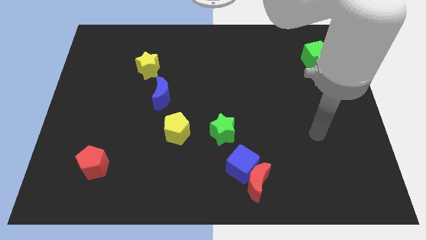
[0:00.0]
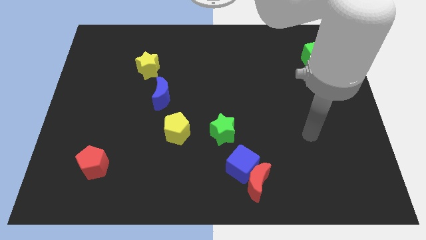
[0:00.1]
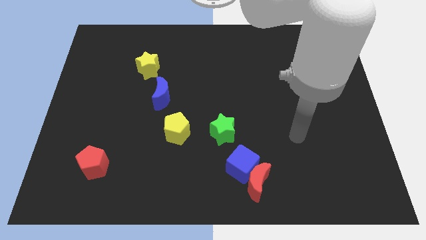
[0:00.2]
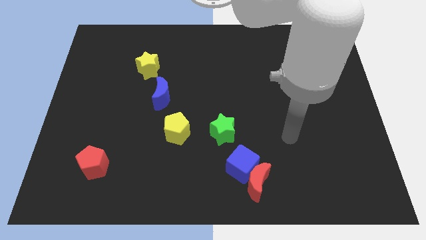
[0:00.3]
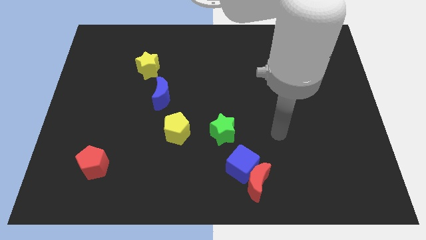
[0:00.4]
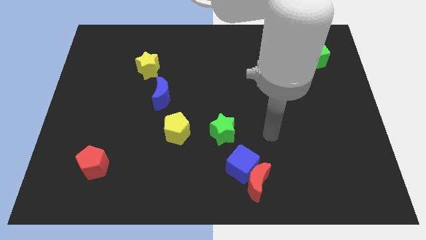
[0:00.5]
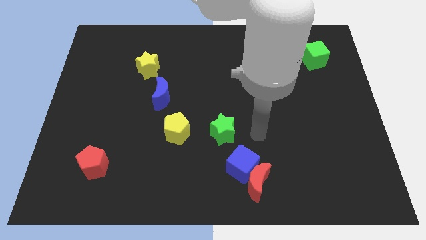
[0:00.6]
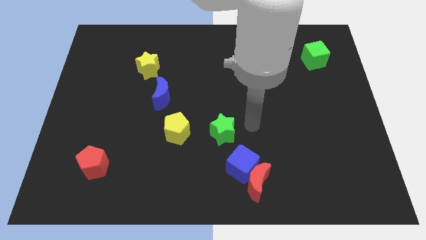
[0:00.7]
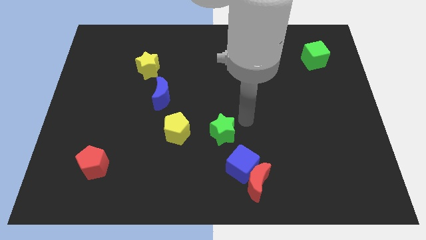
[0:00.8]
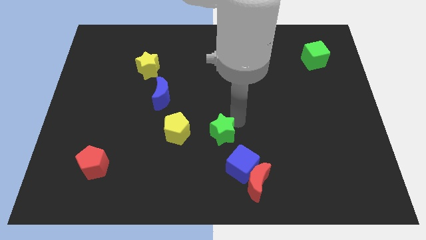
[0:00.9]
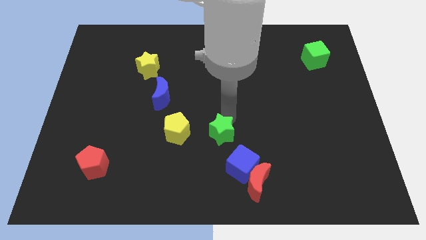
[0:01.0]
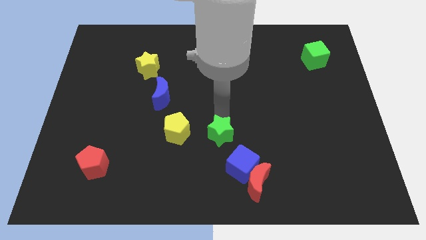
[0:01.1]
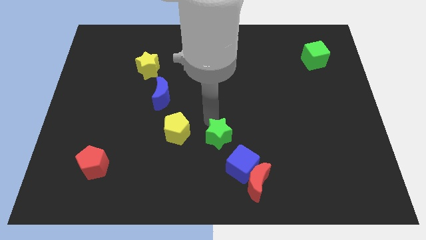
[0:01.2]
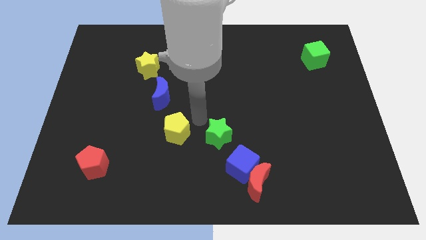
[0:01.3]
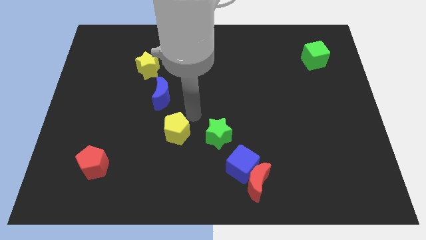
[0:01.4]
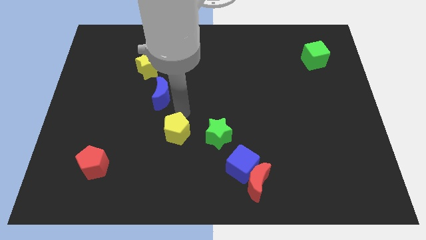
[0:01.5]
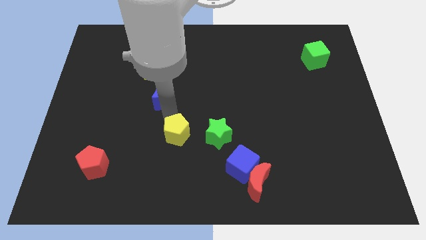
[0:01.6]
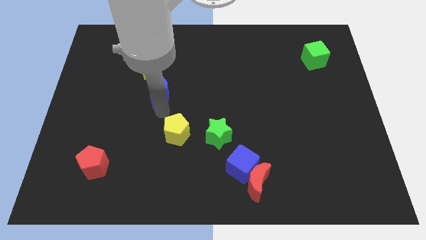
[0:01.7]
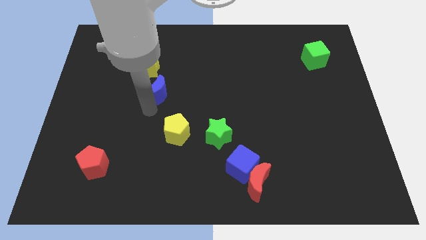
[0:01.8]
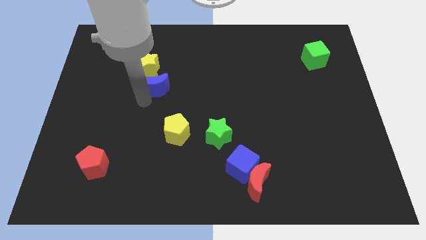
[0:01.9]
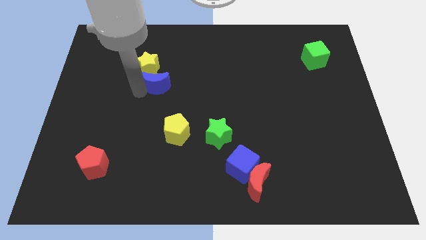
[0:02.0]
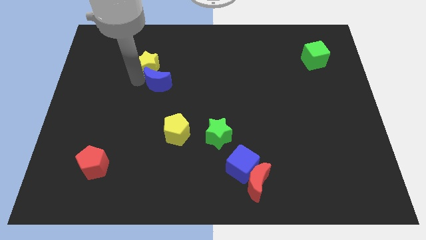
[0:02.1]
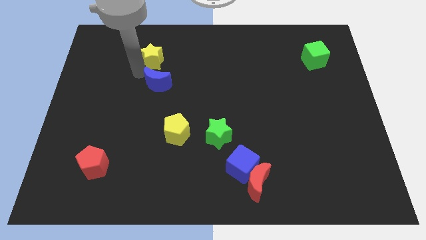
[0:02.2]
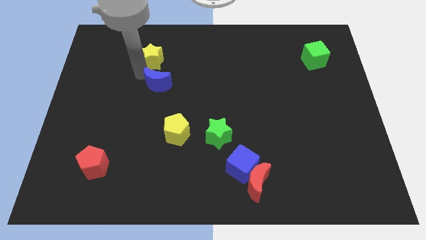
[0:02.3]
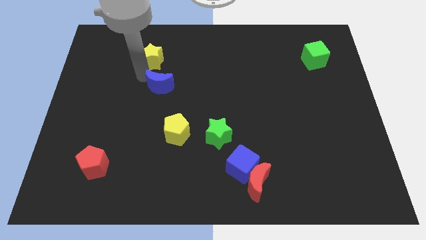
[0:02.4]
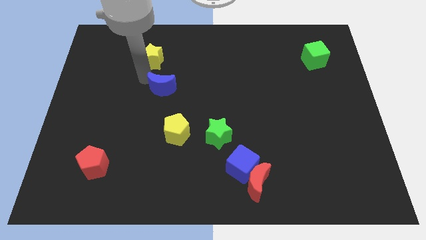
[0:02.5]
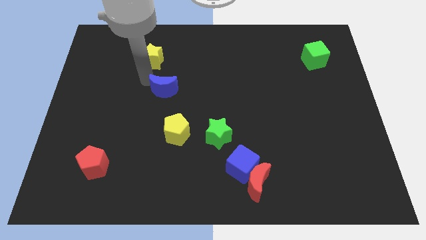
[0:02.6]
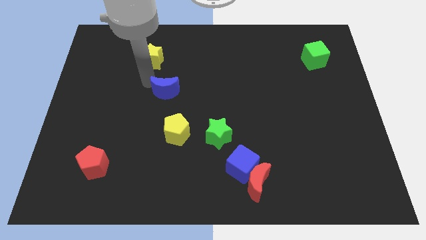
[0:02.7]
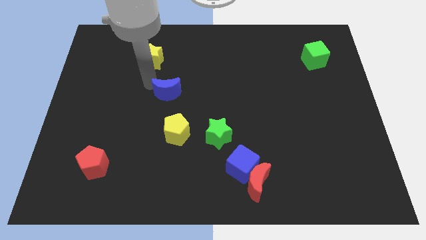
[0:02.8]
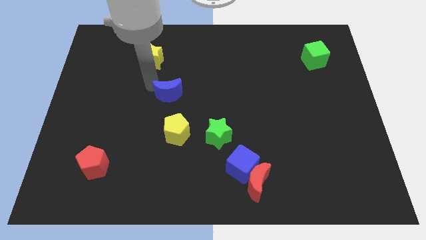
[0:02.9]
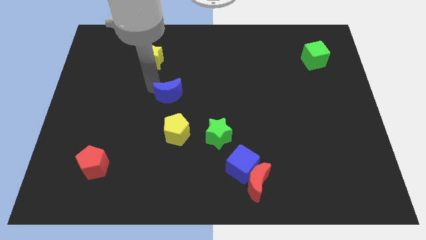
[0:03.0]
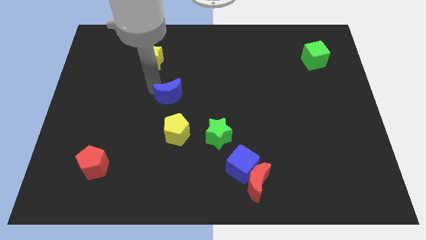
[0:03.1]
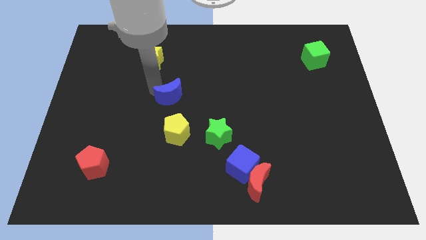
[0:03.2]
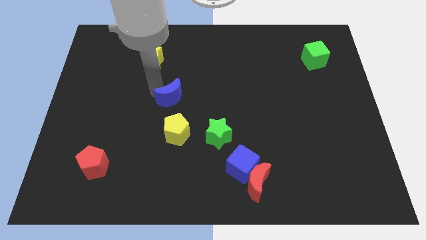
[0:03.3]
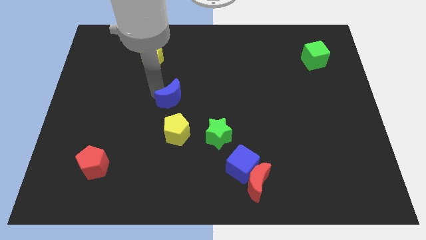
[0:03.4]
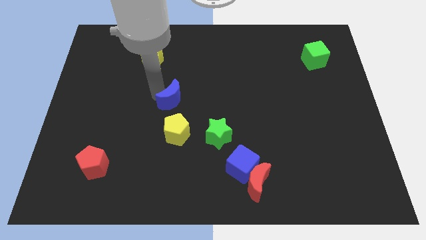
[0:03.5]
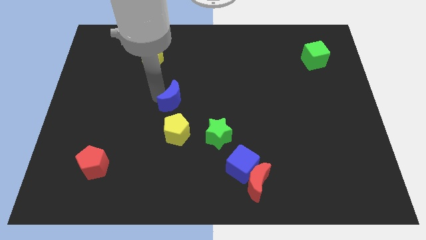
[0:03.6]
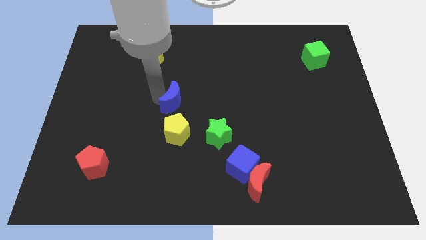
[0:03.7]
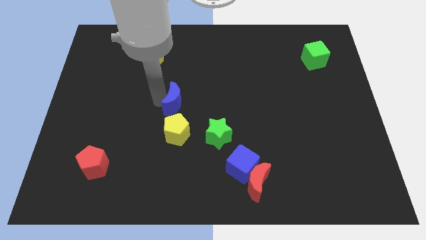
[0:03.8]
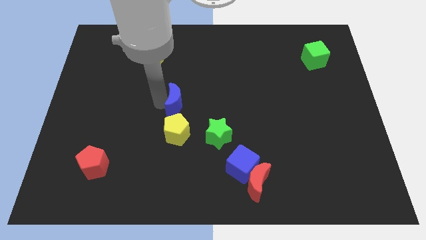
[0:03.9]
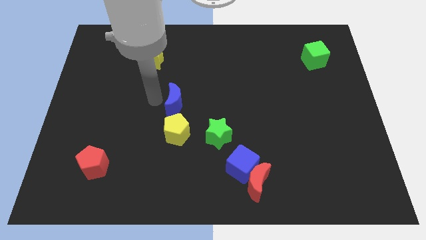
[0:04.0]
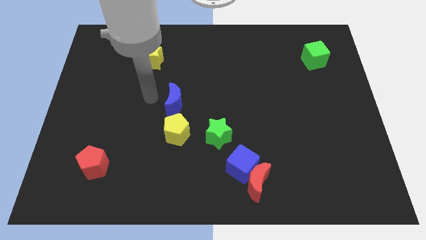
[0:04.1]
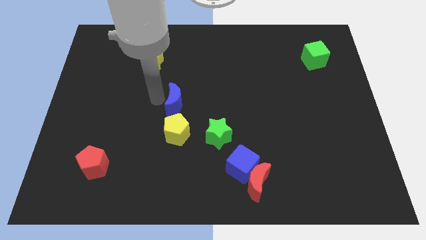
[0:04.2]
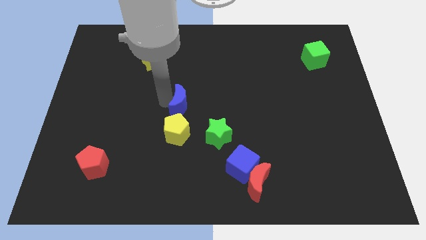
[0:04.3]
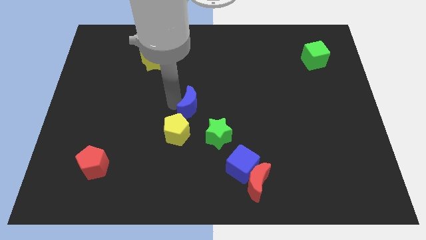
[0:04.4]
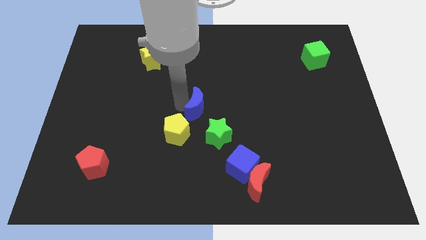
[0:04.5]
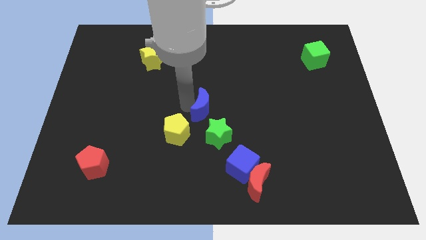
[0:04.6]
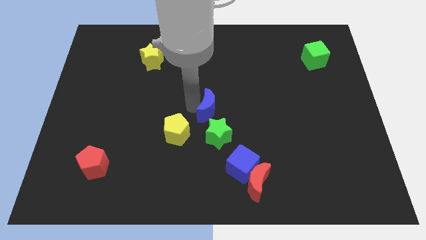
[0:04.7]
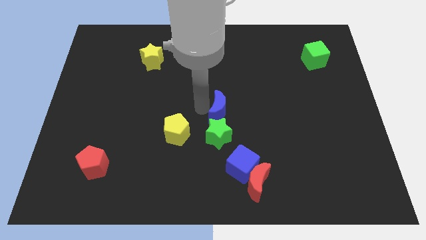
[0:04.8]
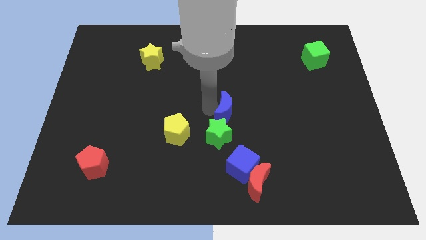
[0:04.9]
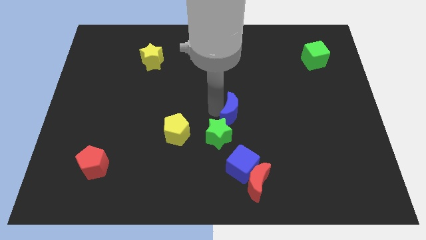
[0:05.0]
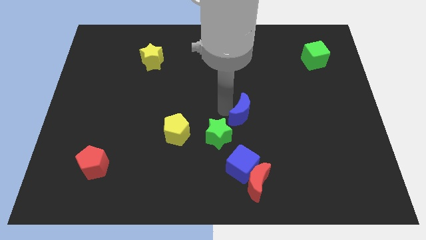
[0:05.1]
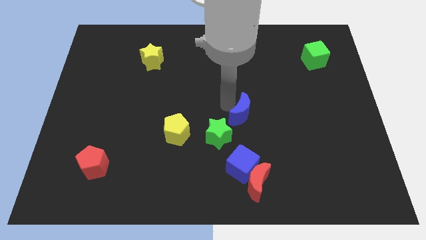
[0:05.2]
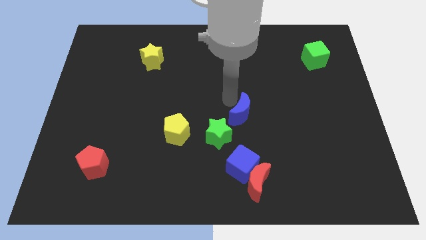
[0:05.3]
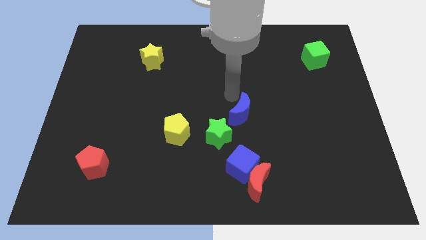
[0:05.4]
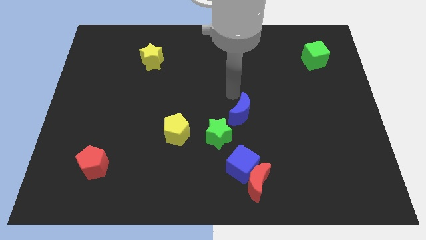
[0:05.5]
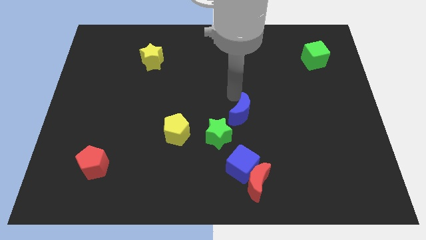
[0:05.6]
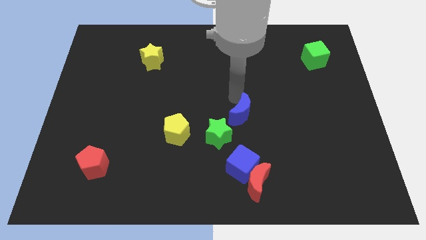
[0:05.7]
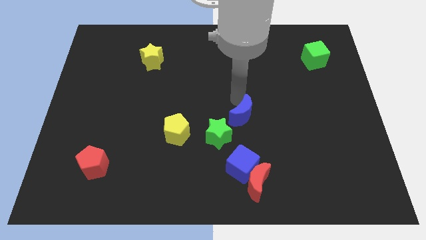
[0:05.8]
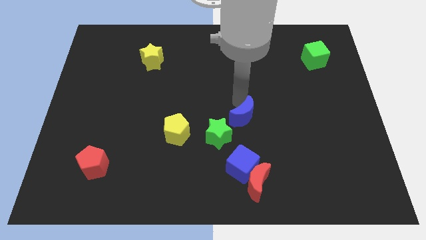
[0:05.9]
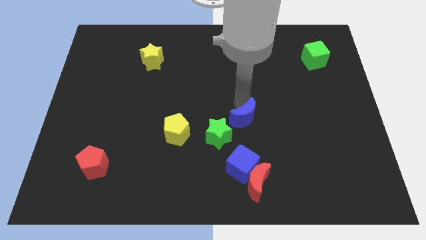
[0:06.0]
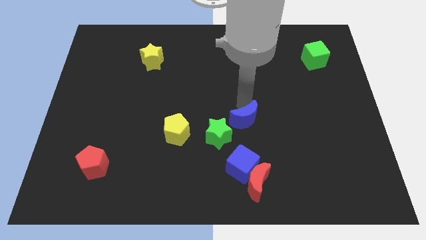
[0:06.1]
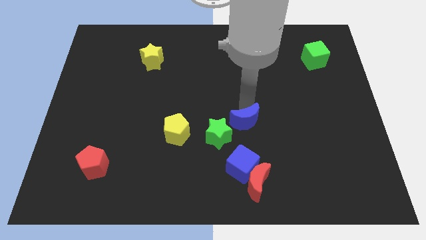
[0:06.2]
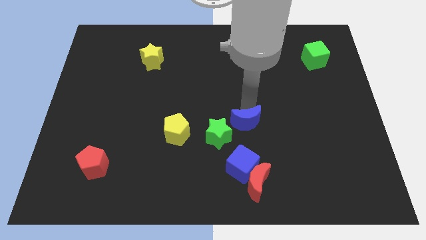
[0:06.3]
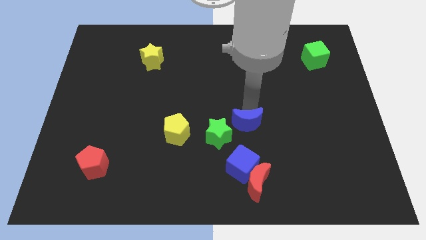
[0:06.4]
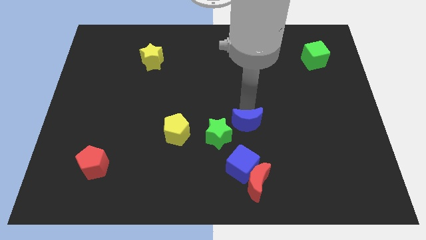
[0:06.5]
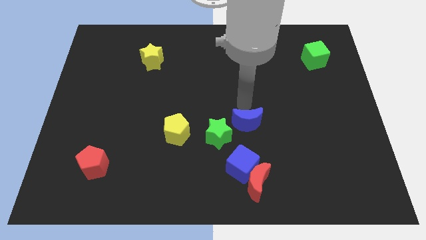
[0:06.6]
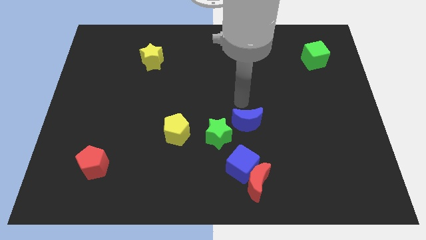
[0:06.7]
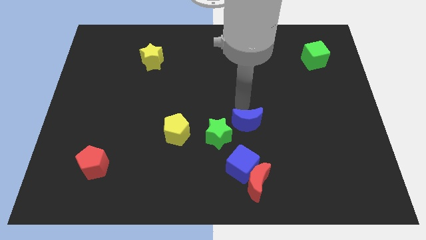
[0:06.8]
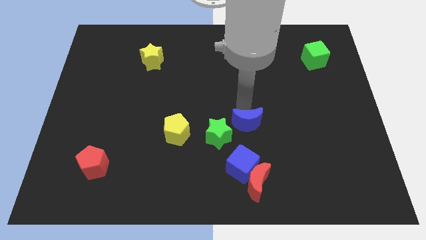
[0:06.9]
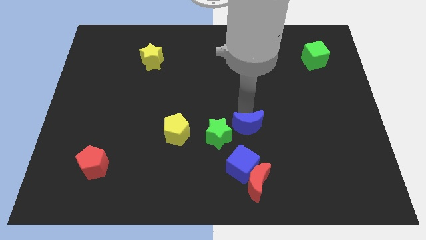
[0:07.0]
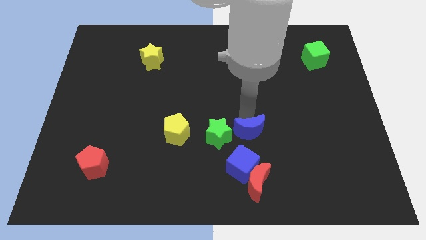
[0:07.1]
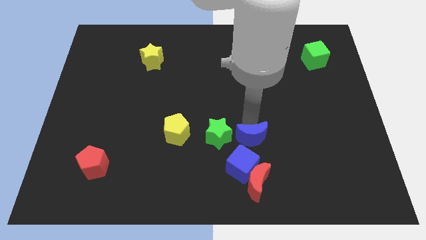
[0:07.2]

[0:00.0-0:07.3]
move the blue moon diagonally down and to the right of the green star
